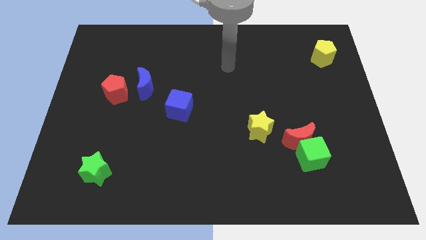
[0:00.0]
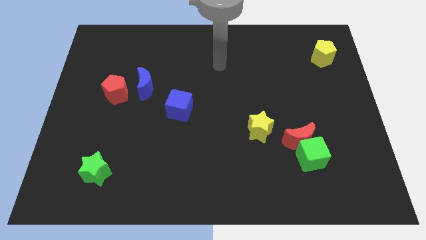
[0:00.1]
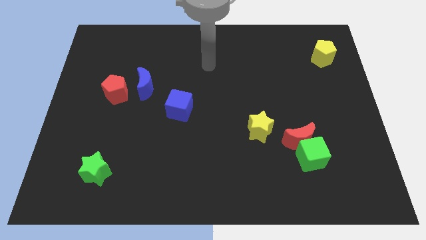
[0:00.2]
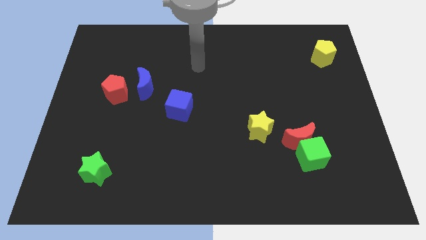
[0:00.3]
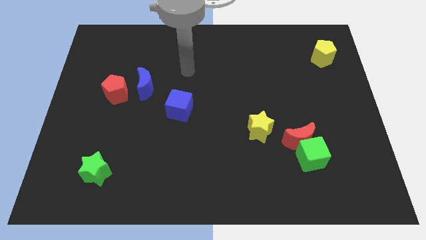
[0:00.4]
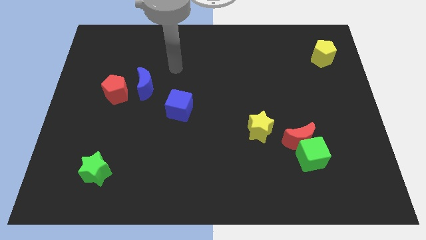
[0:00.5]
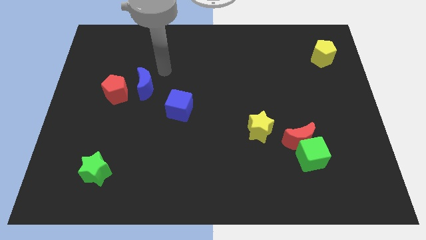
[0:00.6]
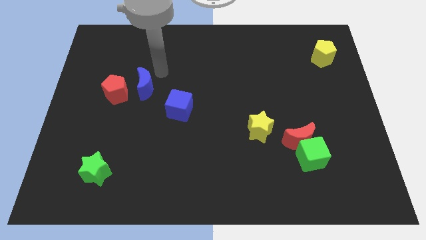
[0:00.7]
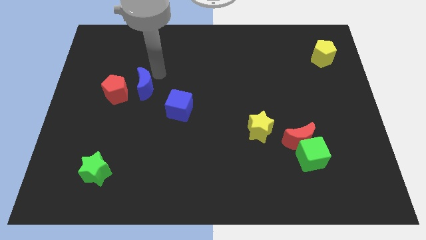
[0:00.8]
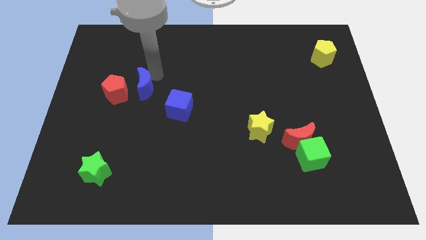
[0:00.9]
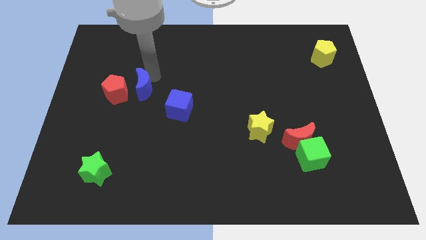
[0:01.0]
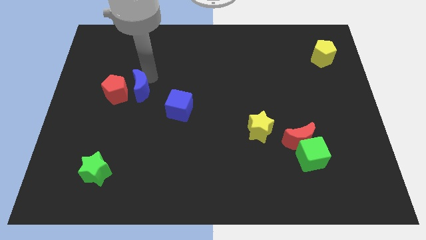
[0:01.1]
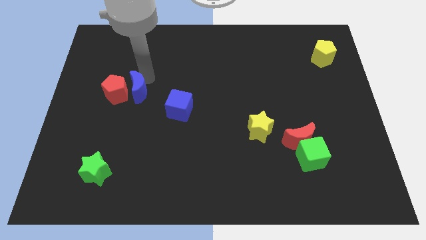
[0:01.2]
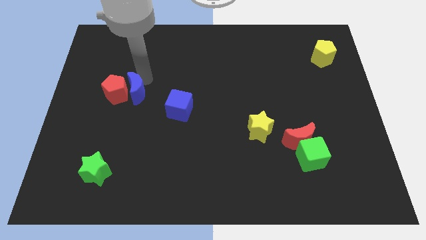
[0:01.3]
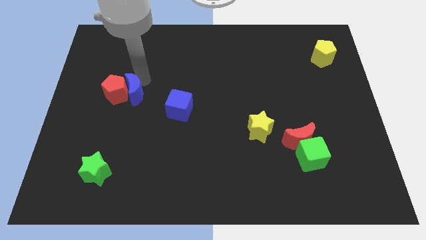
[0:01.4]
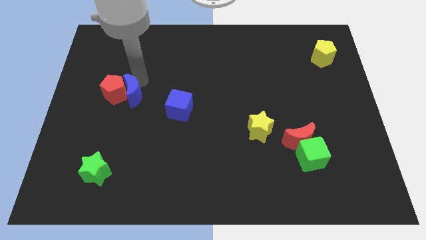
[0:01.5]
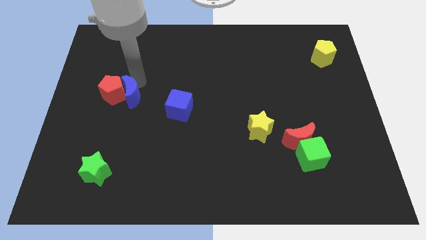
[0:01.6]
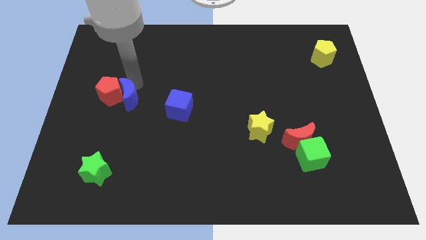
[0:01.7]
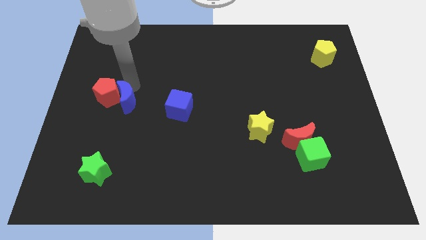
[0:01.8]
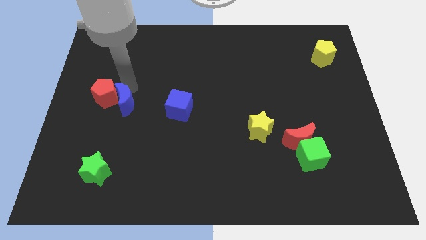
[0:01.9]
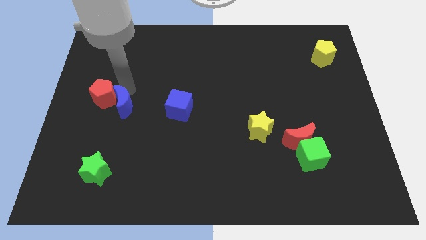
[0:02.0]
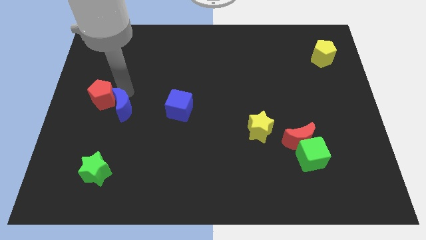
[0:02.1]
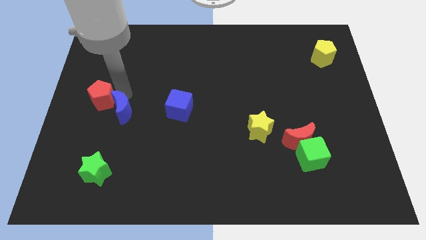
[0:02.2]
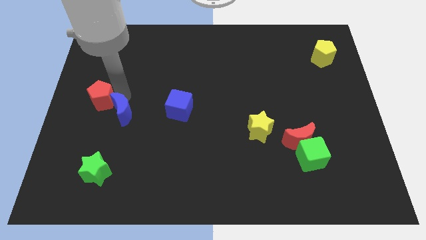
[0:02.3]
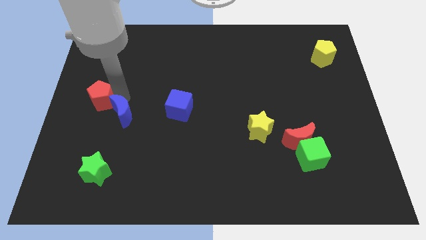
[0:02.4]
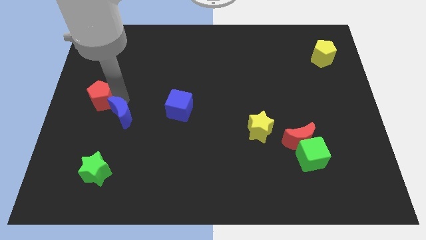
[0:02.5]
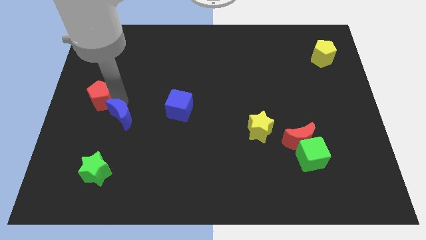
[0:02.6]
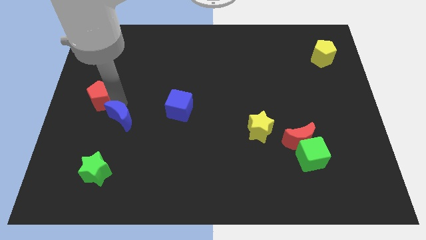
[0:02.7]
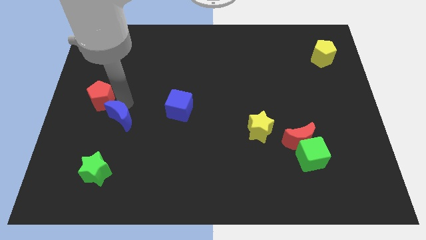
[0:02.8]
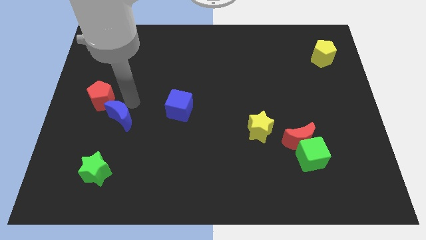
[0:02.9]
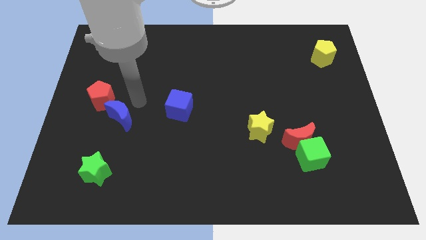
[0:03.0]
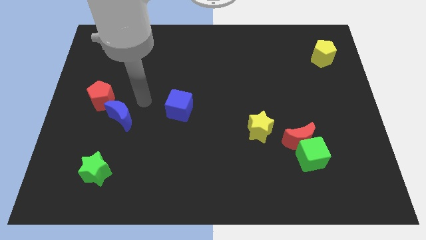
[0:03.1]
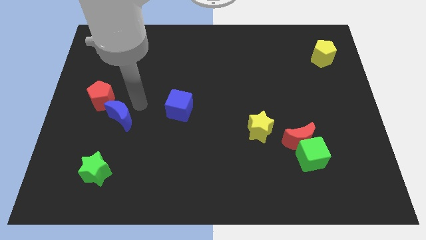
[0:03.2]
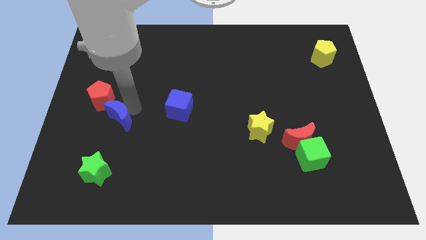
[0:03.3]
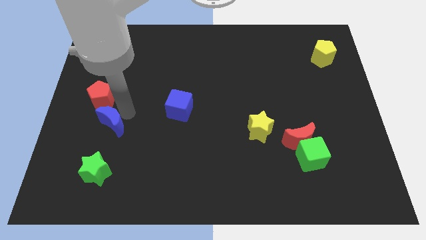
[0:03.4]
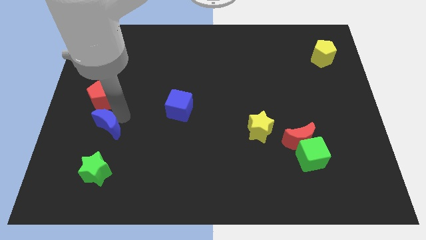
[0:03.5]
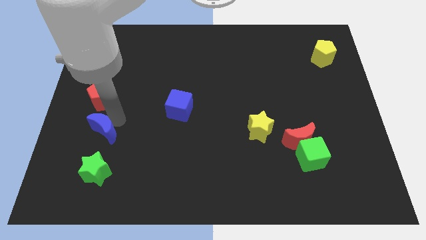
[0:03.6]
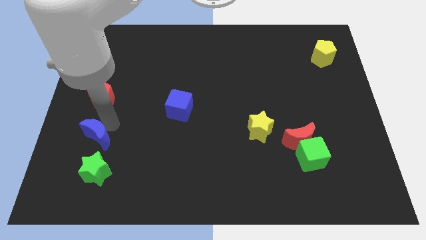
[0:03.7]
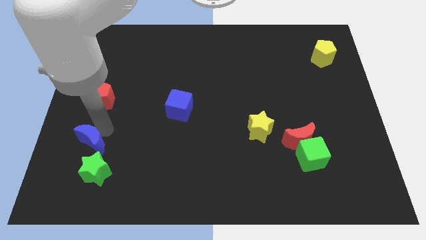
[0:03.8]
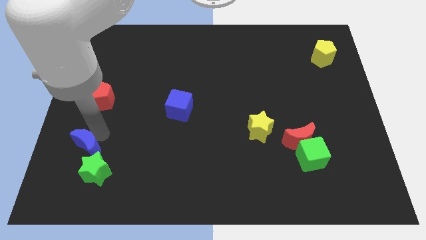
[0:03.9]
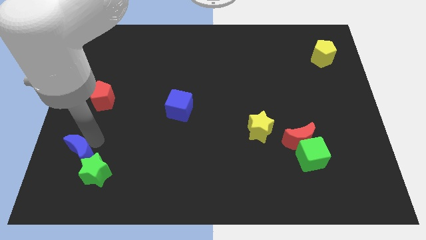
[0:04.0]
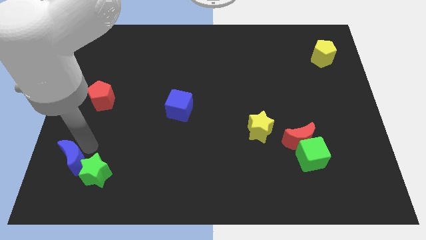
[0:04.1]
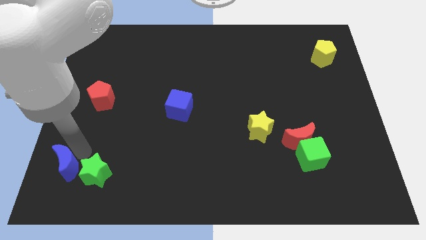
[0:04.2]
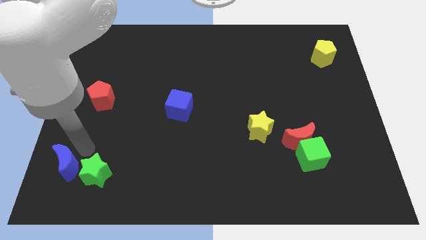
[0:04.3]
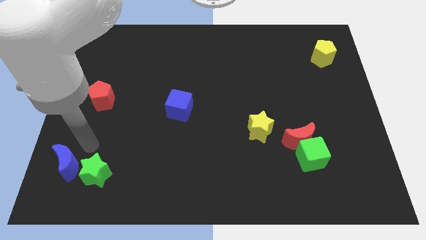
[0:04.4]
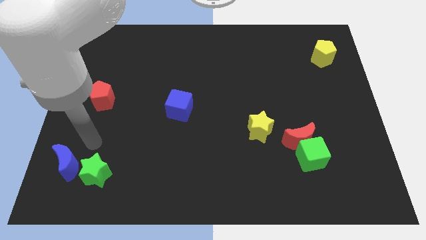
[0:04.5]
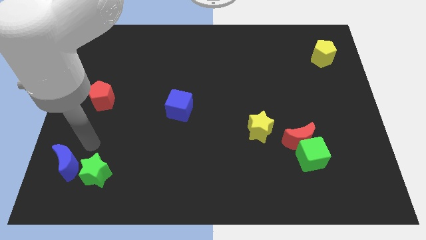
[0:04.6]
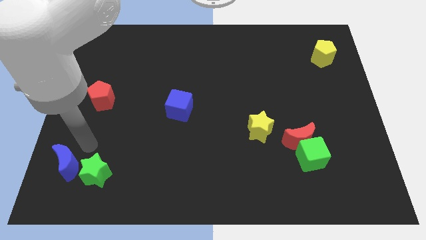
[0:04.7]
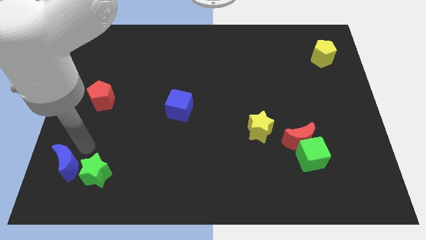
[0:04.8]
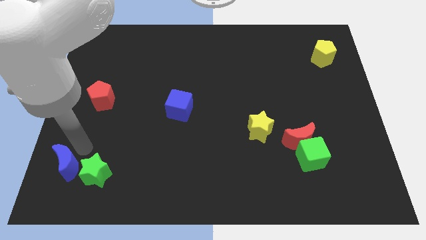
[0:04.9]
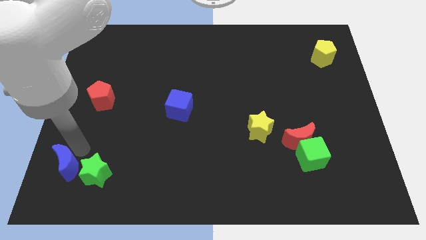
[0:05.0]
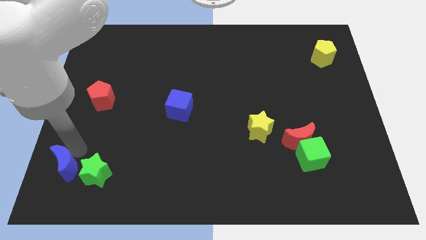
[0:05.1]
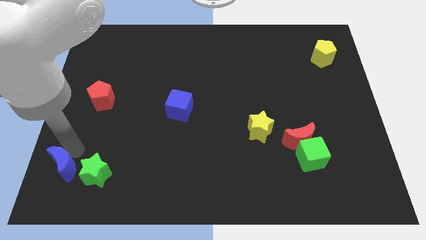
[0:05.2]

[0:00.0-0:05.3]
slide the blue moon to the lower left corner

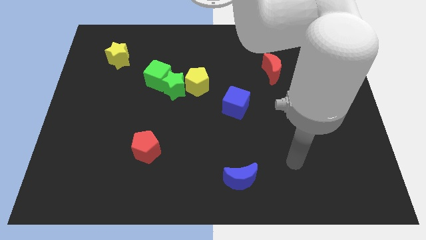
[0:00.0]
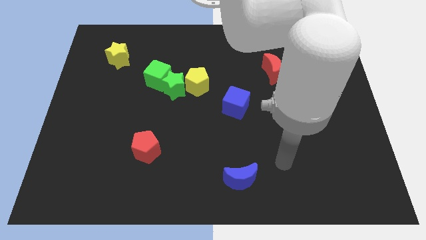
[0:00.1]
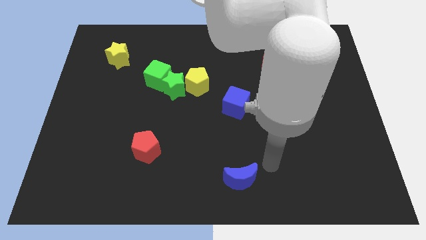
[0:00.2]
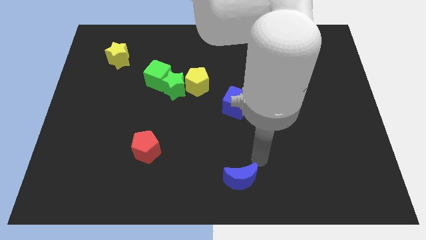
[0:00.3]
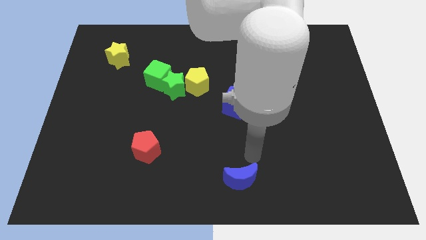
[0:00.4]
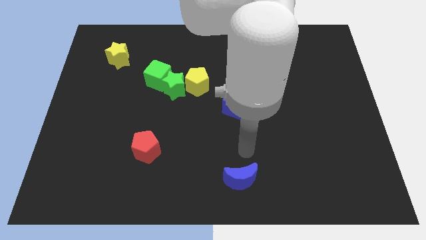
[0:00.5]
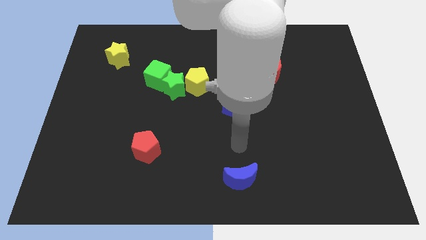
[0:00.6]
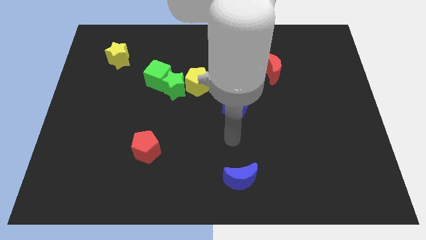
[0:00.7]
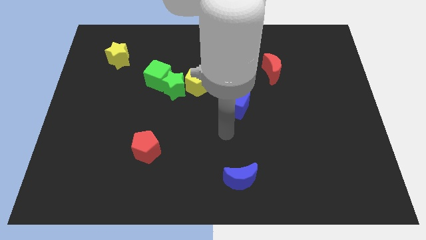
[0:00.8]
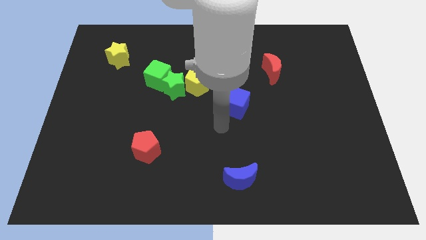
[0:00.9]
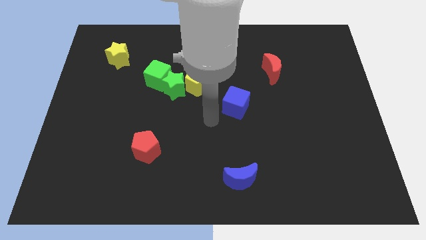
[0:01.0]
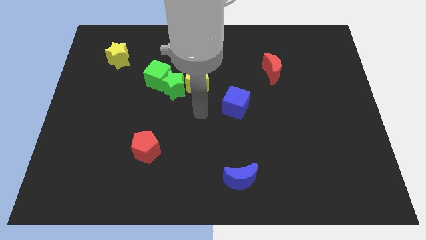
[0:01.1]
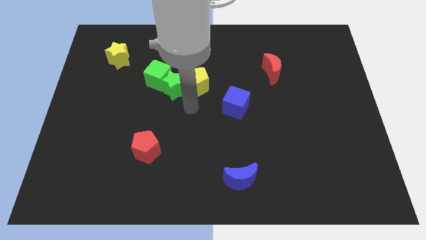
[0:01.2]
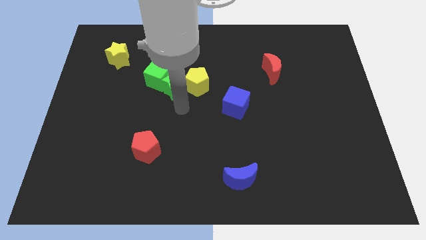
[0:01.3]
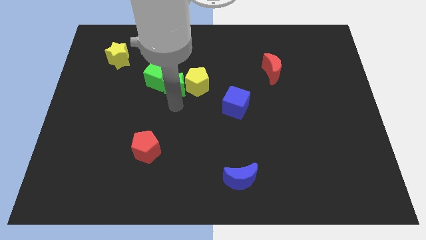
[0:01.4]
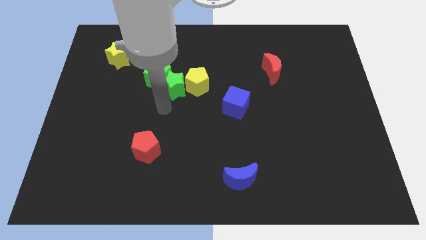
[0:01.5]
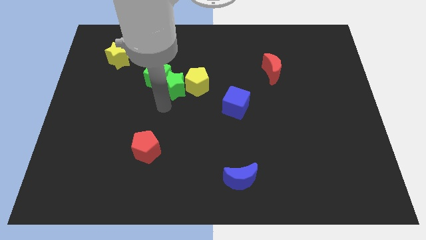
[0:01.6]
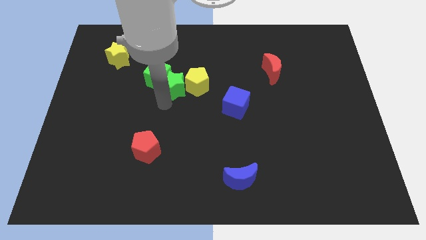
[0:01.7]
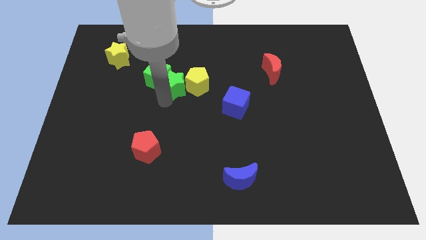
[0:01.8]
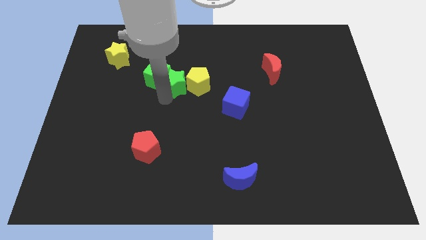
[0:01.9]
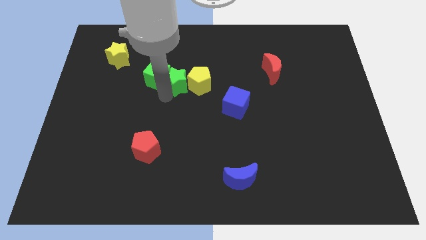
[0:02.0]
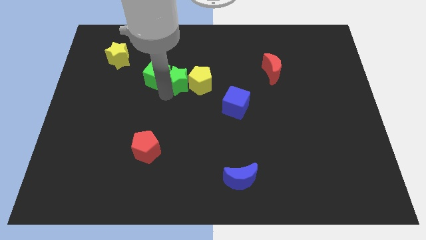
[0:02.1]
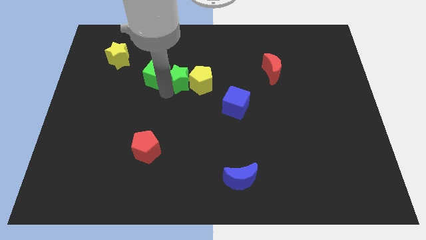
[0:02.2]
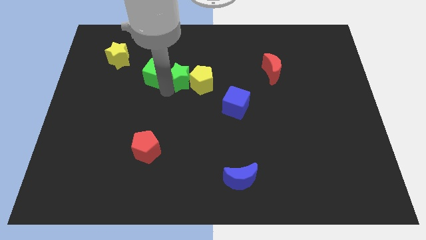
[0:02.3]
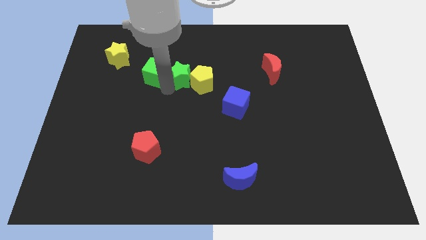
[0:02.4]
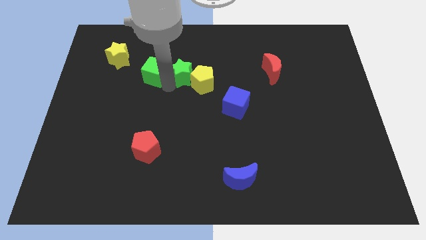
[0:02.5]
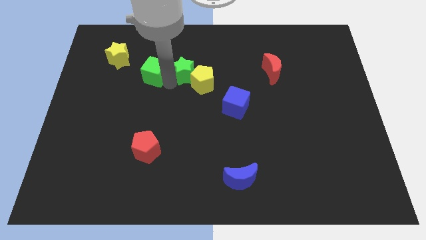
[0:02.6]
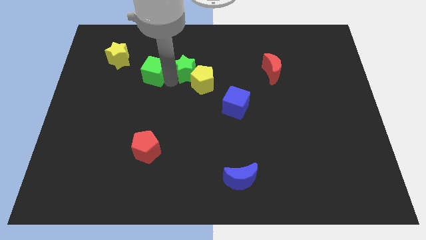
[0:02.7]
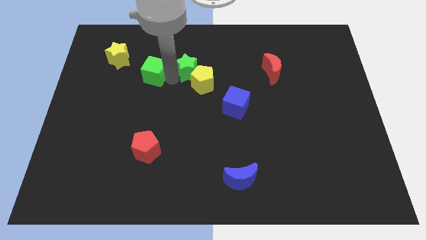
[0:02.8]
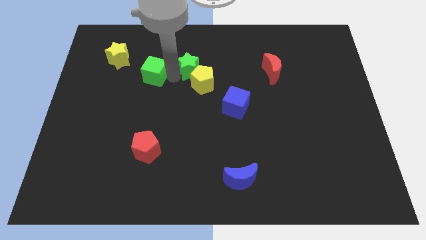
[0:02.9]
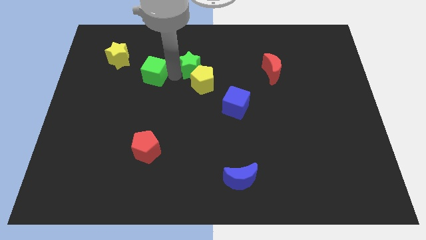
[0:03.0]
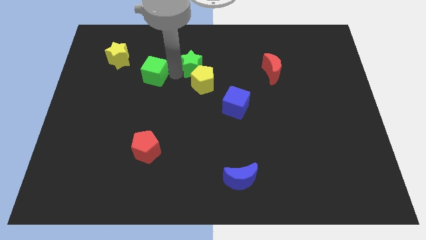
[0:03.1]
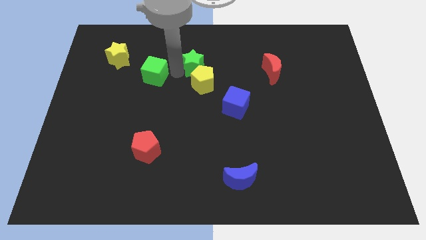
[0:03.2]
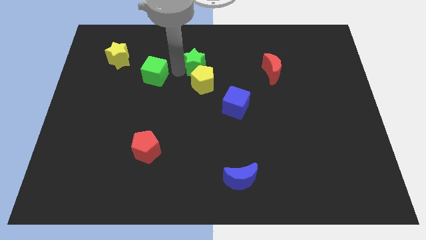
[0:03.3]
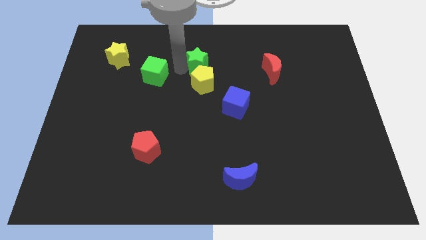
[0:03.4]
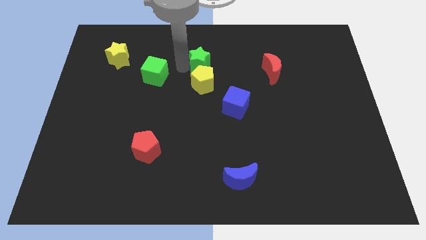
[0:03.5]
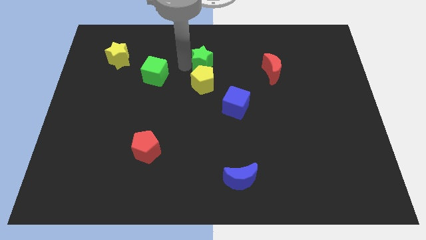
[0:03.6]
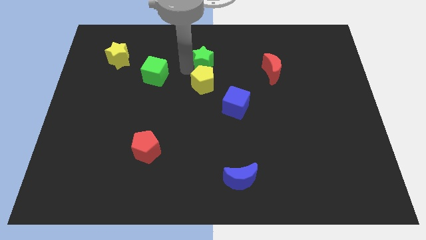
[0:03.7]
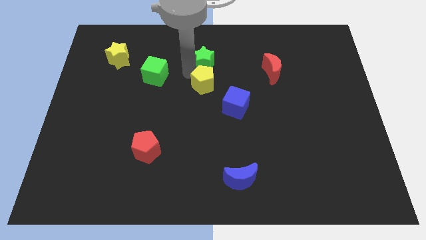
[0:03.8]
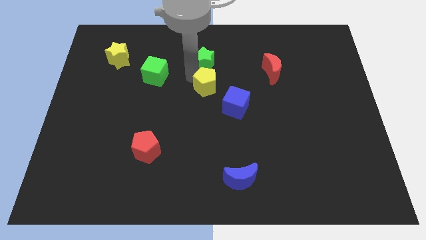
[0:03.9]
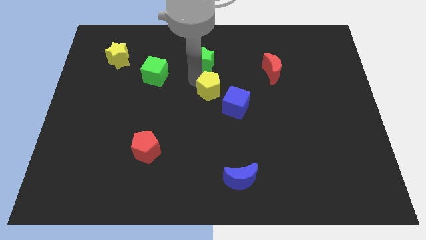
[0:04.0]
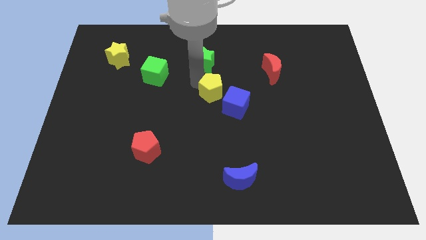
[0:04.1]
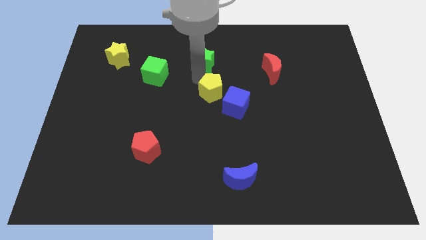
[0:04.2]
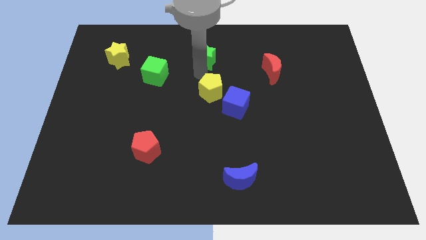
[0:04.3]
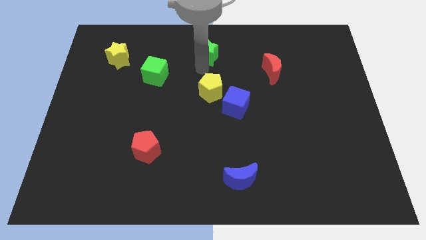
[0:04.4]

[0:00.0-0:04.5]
put the green star to the top
